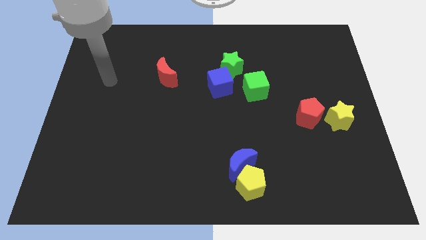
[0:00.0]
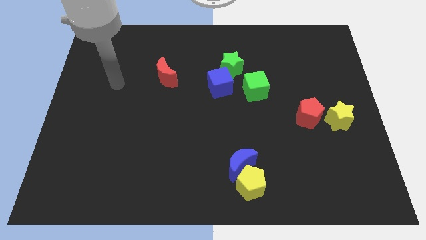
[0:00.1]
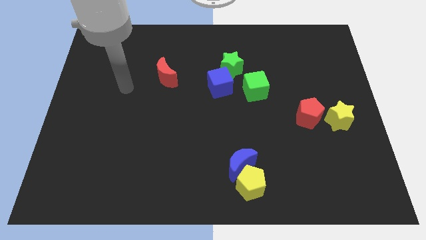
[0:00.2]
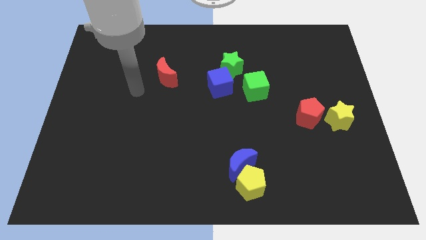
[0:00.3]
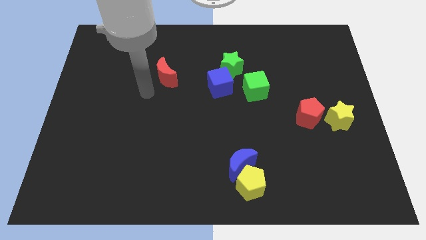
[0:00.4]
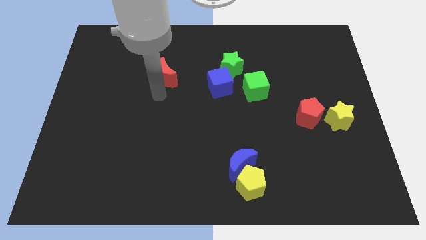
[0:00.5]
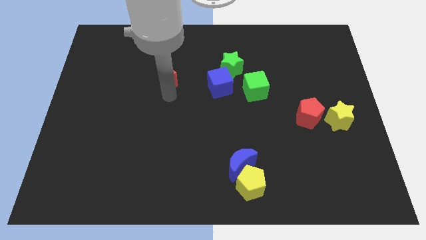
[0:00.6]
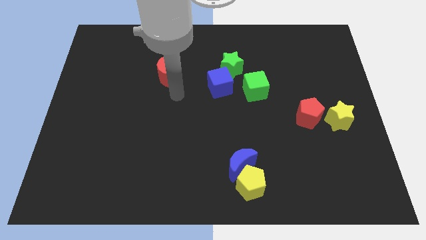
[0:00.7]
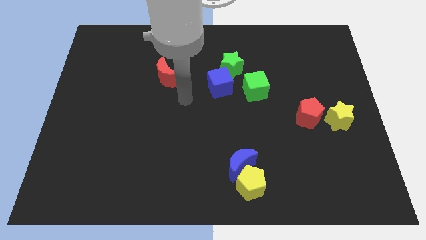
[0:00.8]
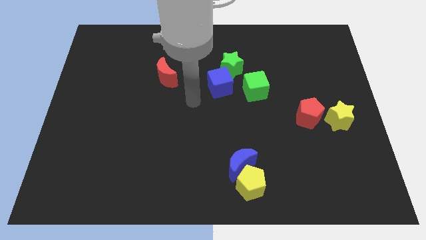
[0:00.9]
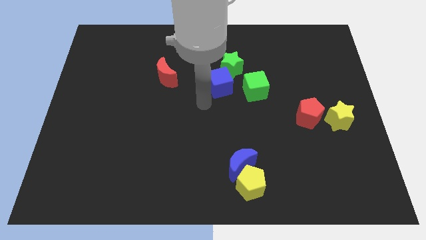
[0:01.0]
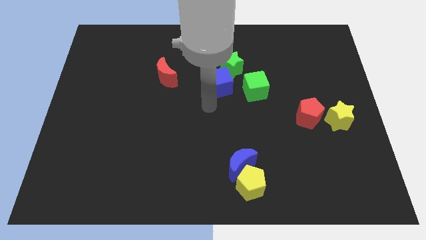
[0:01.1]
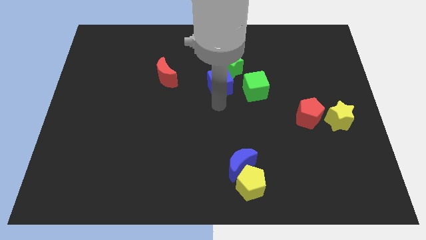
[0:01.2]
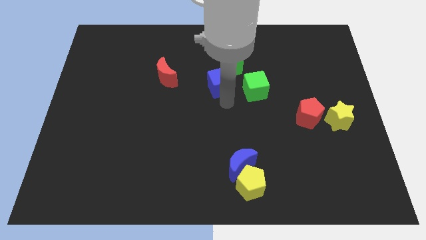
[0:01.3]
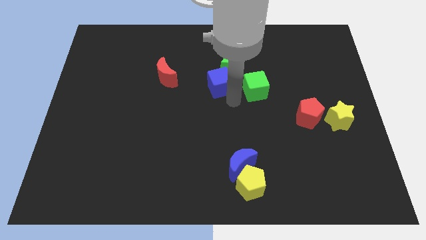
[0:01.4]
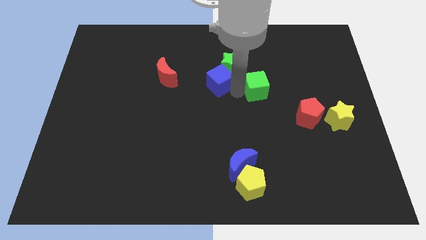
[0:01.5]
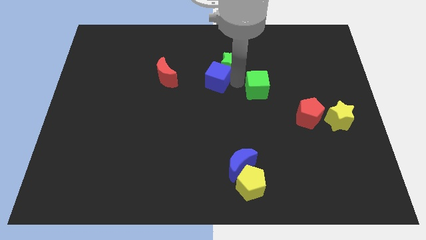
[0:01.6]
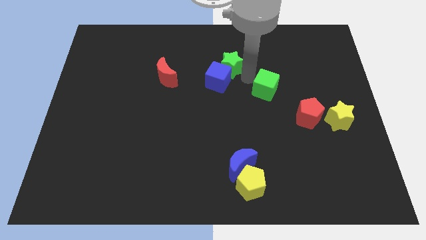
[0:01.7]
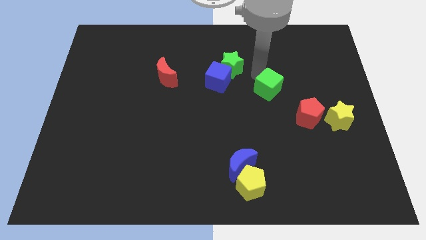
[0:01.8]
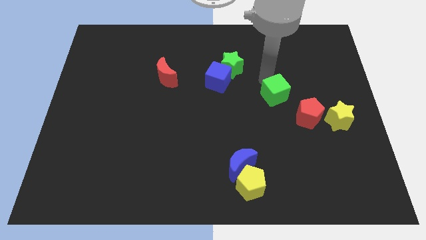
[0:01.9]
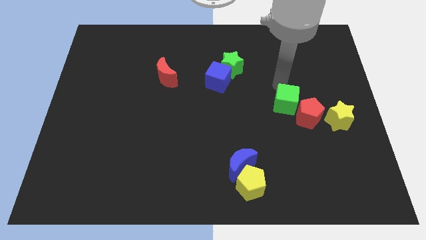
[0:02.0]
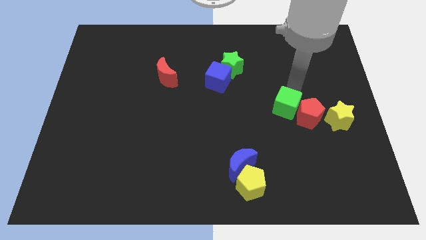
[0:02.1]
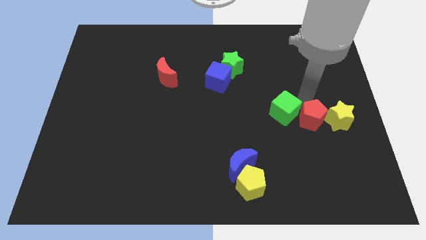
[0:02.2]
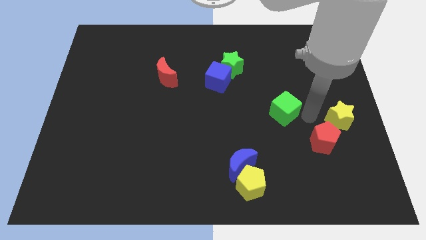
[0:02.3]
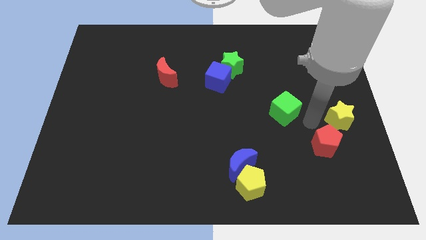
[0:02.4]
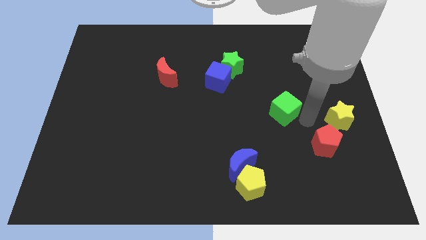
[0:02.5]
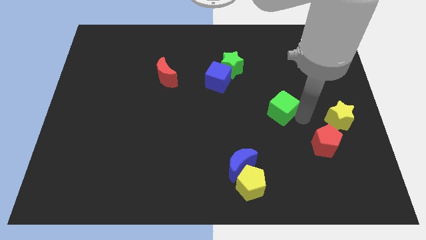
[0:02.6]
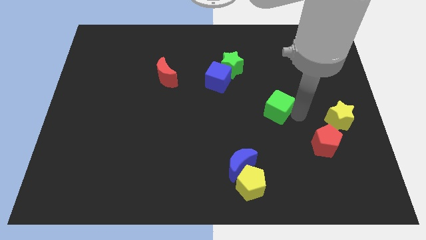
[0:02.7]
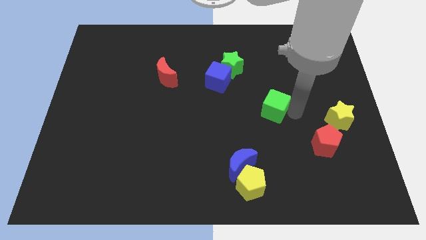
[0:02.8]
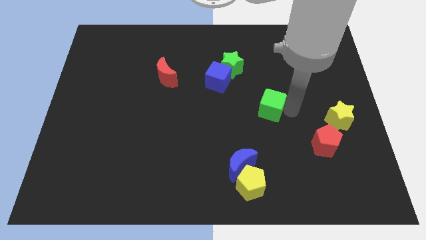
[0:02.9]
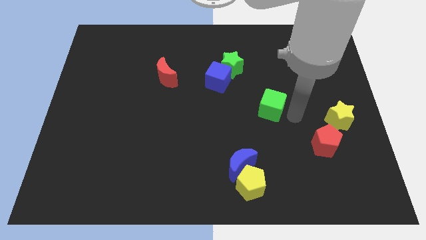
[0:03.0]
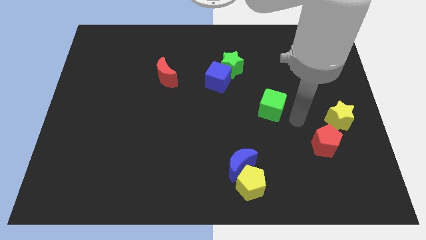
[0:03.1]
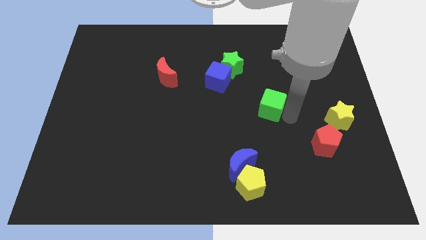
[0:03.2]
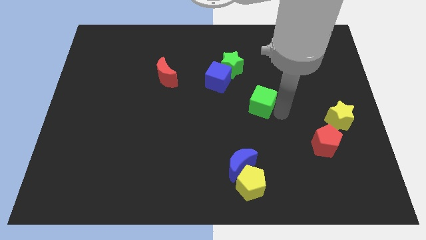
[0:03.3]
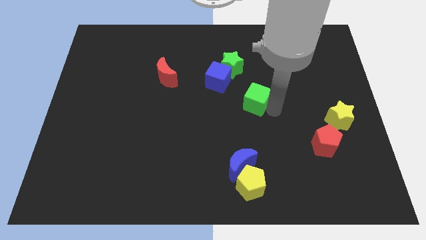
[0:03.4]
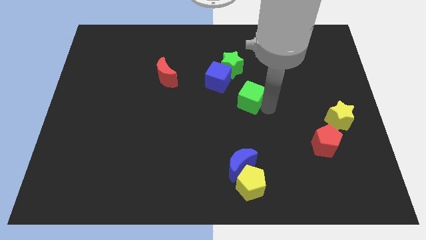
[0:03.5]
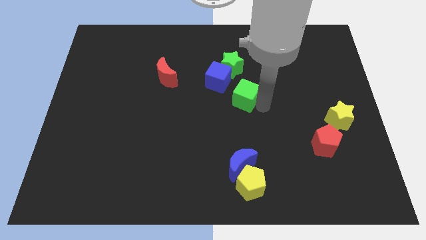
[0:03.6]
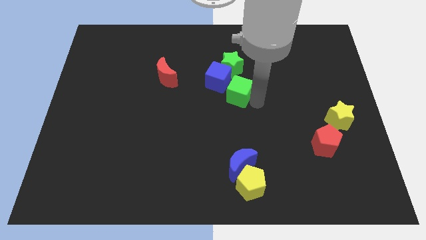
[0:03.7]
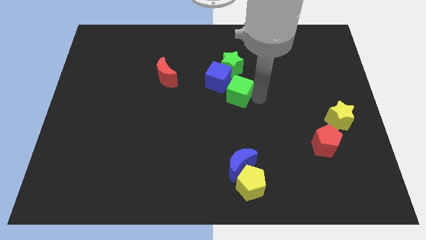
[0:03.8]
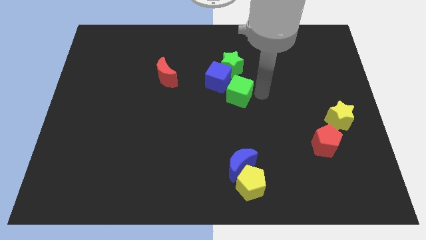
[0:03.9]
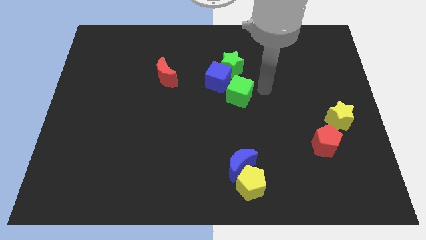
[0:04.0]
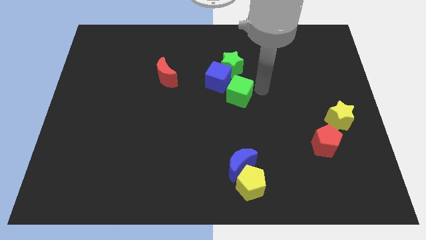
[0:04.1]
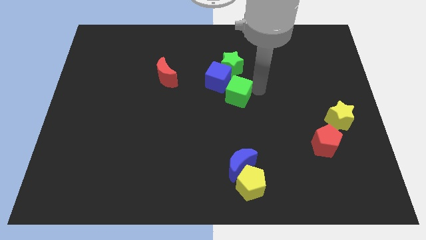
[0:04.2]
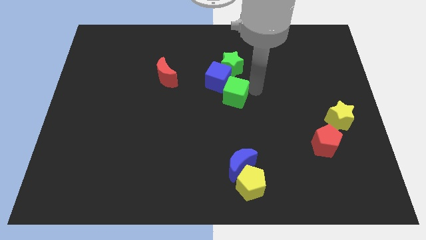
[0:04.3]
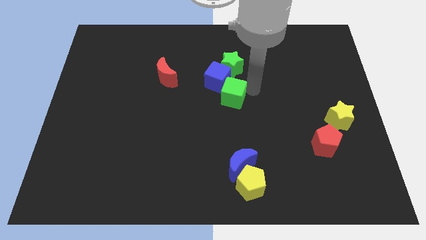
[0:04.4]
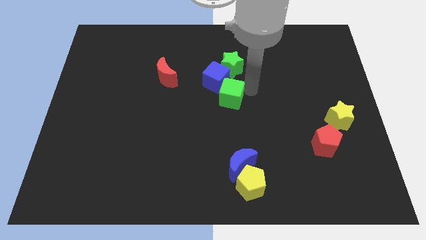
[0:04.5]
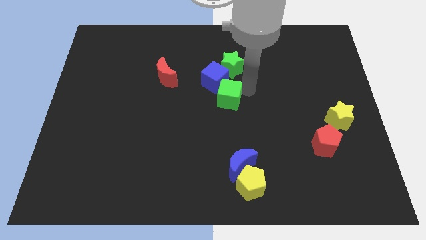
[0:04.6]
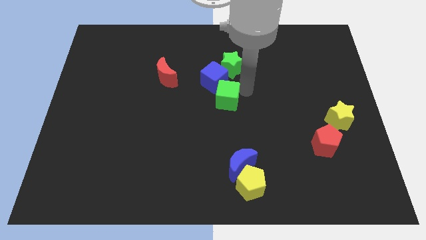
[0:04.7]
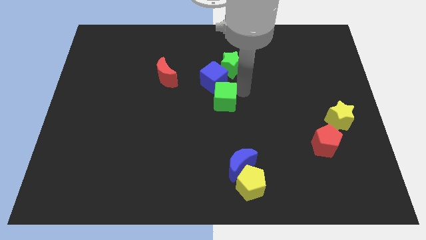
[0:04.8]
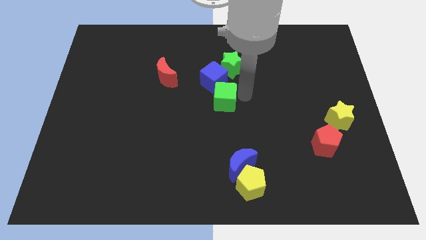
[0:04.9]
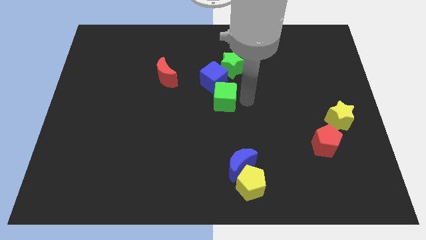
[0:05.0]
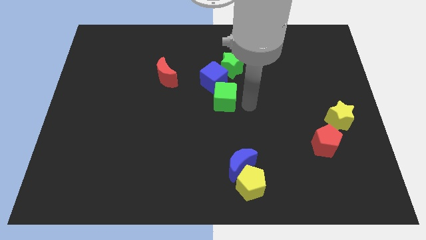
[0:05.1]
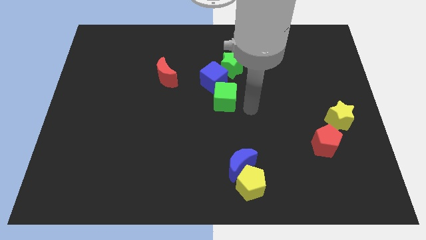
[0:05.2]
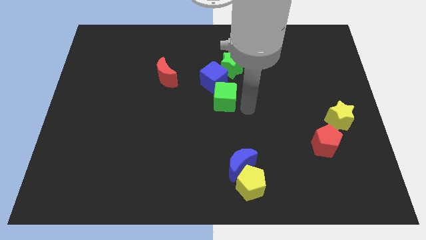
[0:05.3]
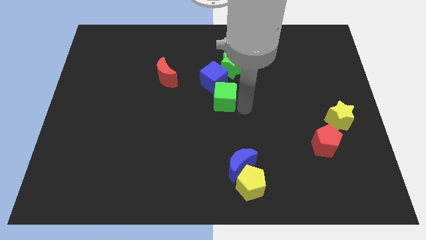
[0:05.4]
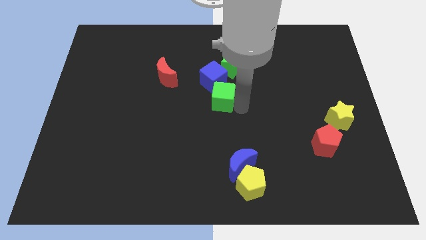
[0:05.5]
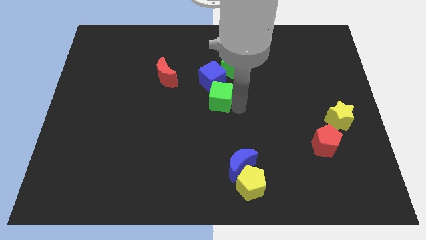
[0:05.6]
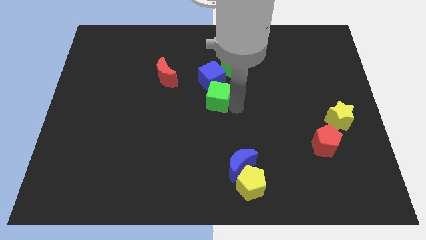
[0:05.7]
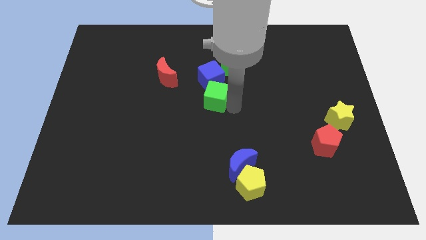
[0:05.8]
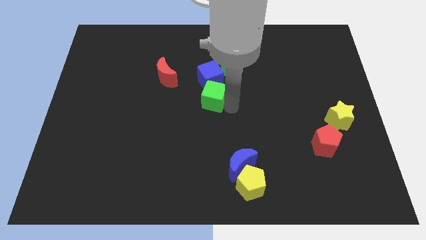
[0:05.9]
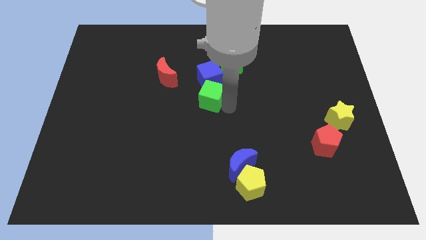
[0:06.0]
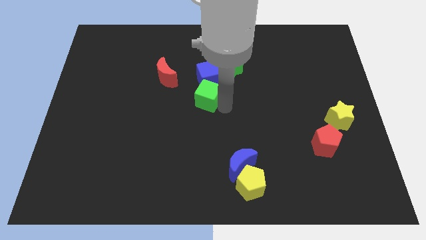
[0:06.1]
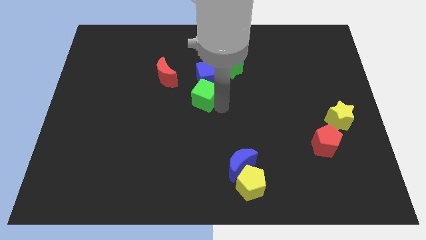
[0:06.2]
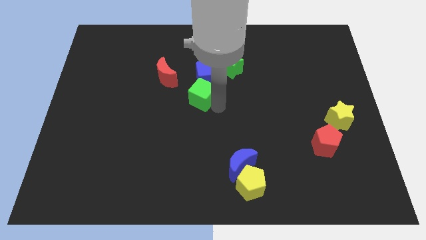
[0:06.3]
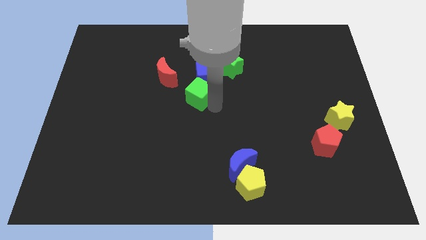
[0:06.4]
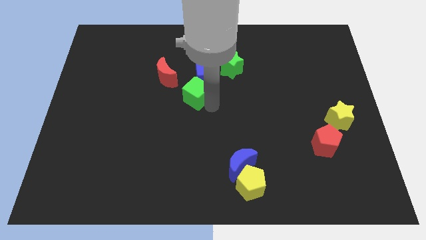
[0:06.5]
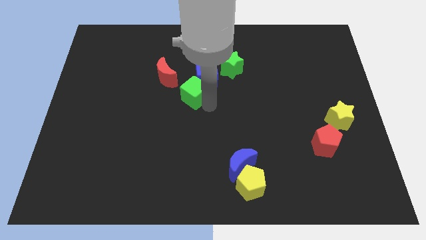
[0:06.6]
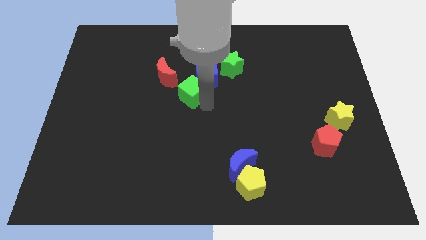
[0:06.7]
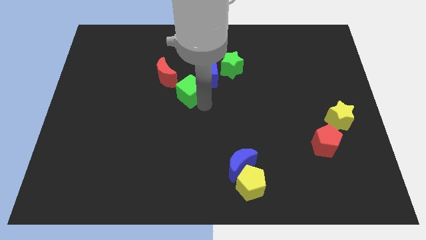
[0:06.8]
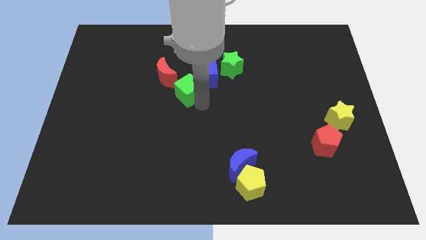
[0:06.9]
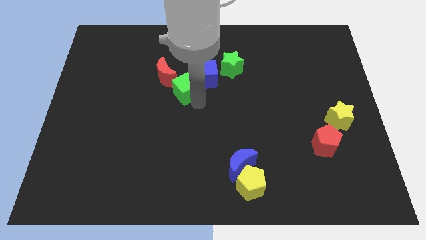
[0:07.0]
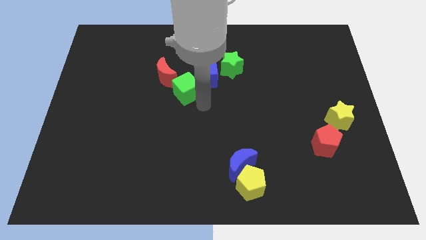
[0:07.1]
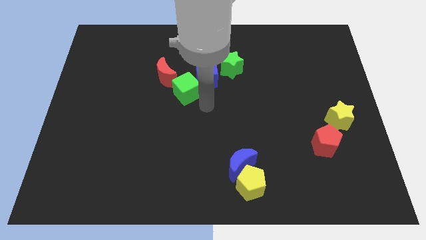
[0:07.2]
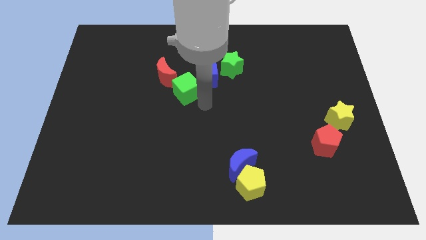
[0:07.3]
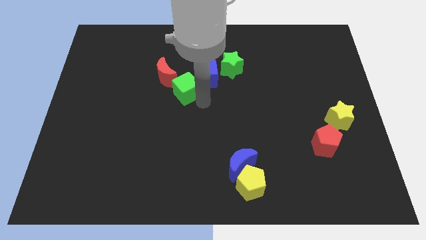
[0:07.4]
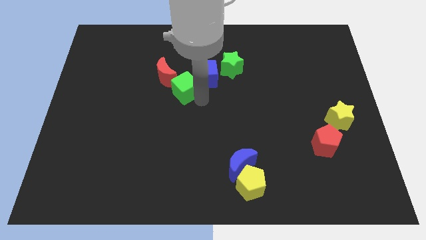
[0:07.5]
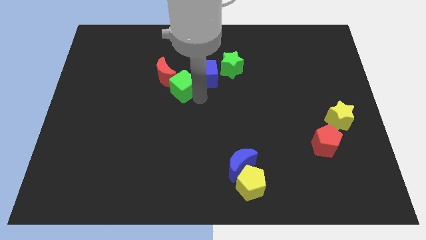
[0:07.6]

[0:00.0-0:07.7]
push the green cube next to the red moon
